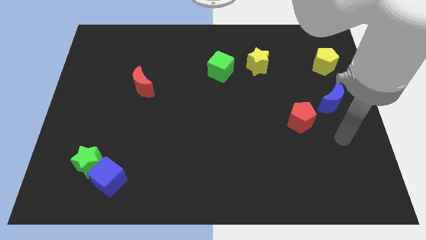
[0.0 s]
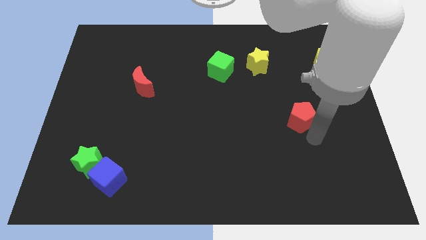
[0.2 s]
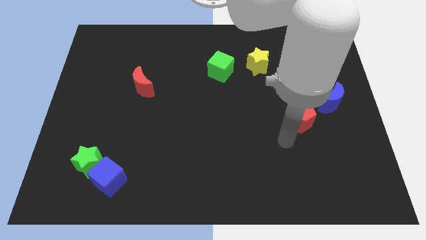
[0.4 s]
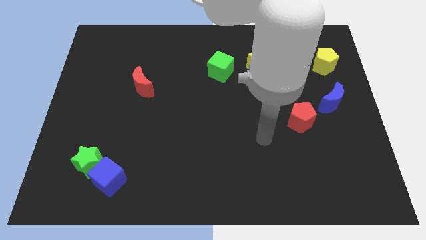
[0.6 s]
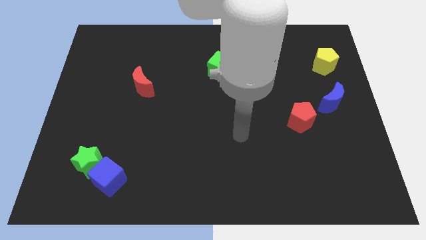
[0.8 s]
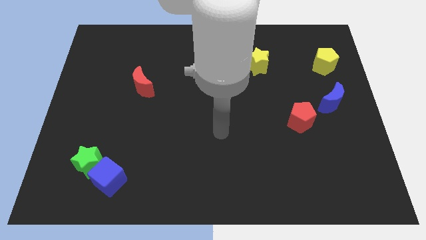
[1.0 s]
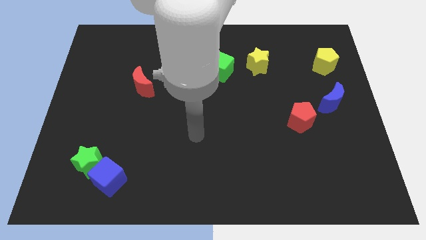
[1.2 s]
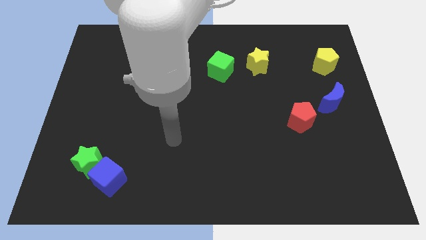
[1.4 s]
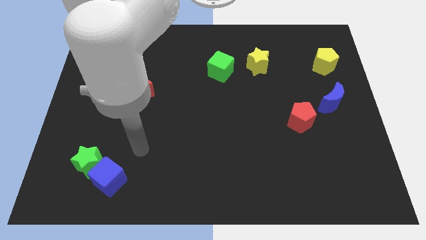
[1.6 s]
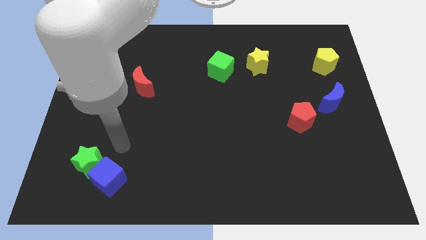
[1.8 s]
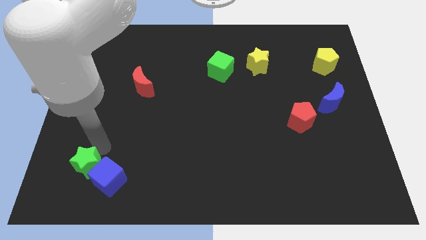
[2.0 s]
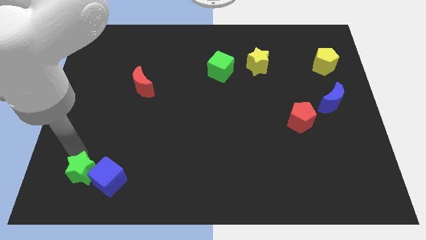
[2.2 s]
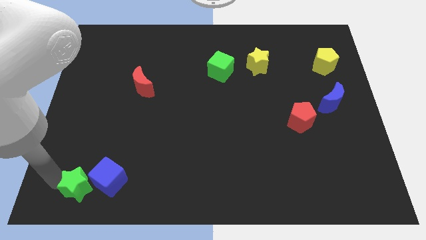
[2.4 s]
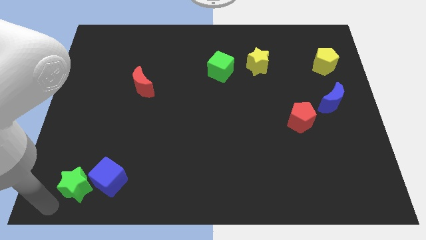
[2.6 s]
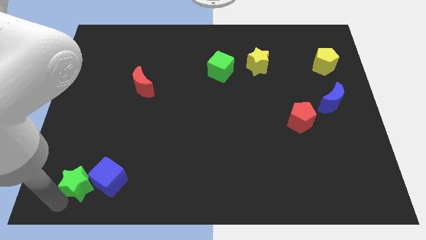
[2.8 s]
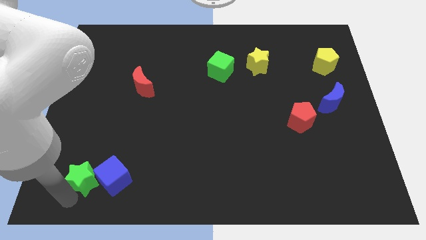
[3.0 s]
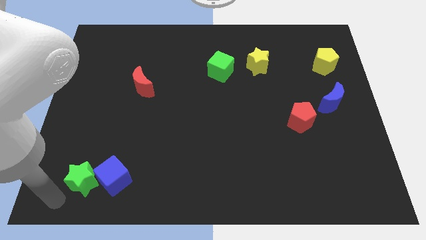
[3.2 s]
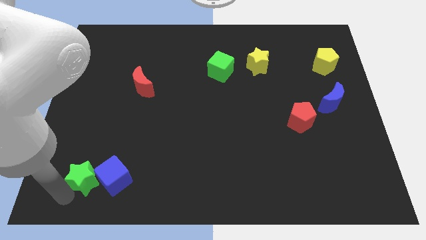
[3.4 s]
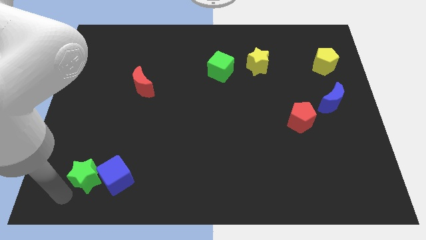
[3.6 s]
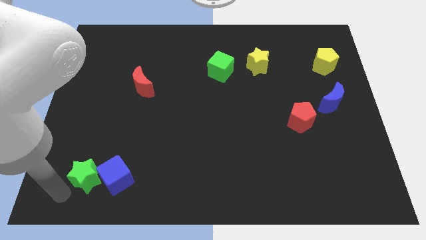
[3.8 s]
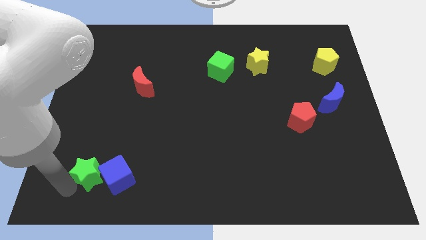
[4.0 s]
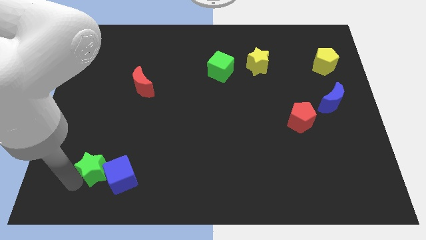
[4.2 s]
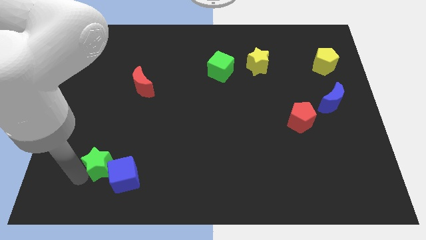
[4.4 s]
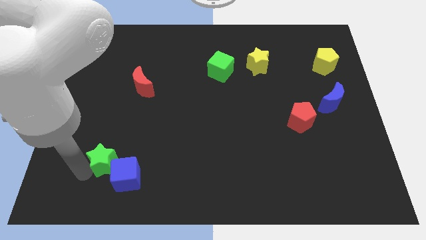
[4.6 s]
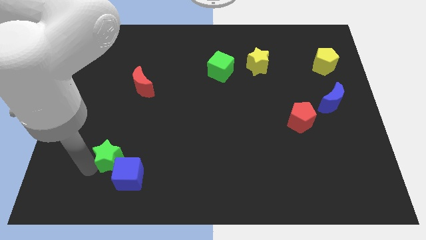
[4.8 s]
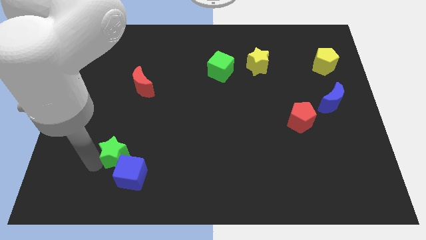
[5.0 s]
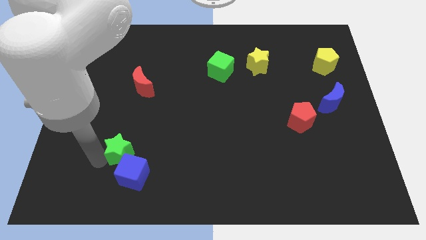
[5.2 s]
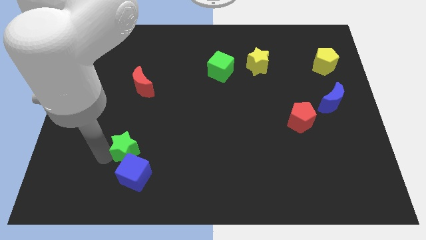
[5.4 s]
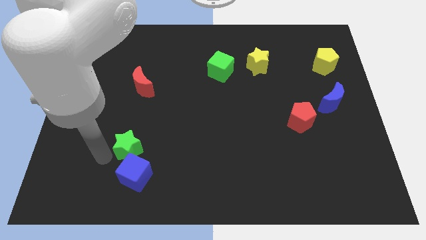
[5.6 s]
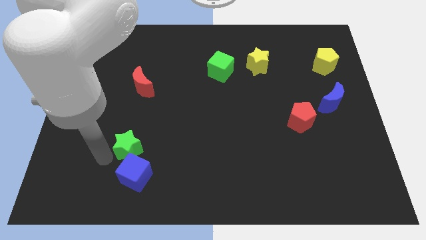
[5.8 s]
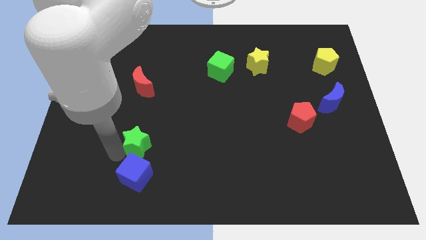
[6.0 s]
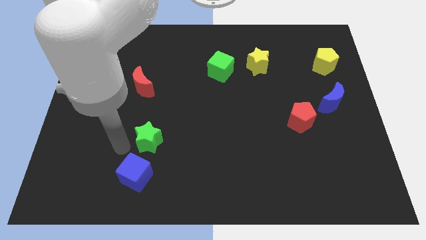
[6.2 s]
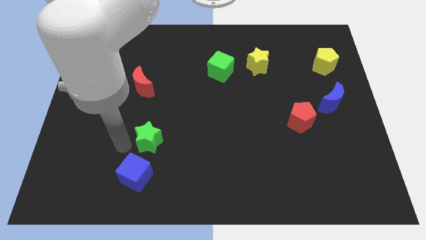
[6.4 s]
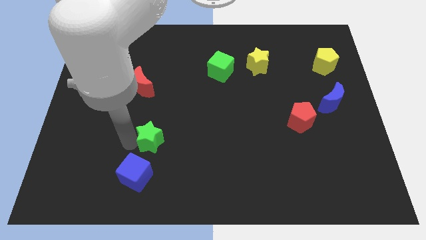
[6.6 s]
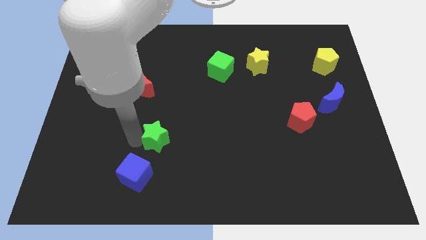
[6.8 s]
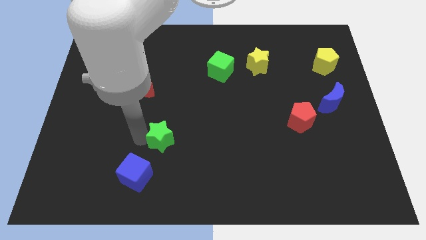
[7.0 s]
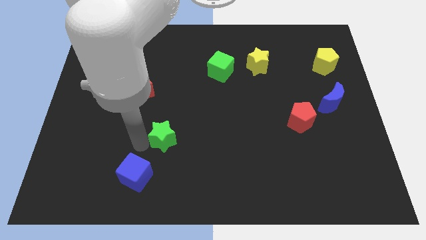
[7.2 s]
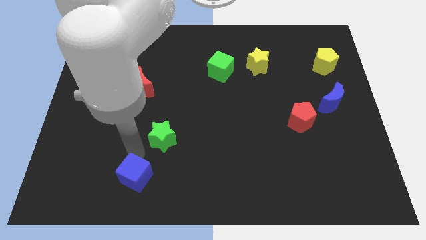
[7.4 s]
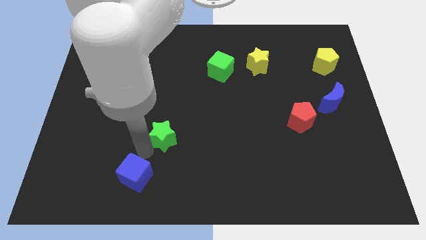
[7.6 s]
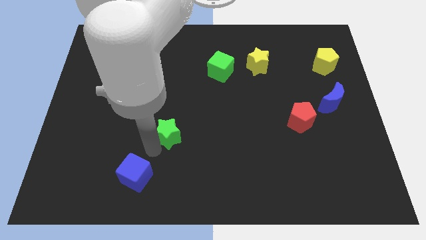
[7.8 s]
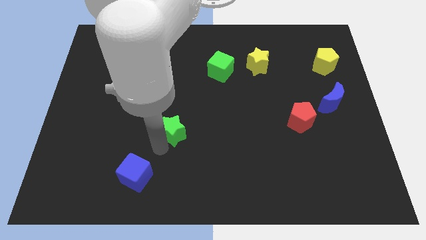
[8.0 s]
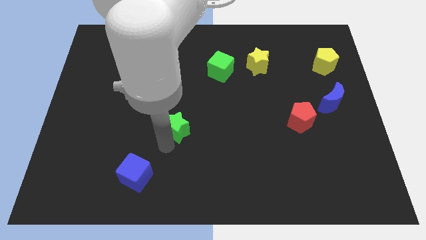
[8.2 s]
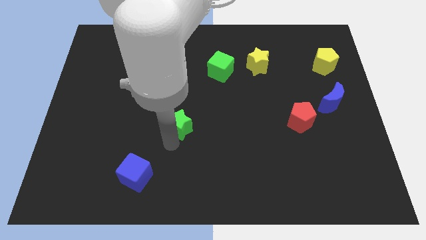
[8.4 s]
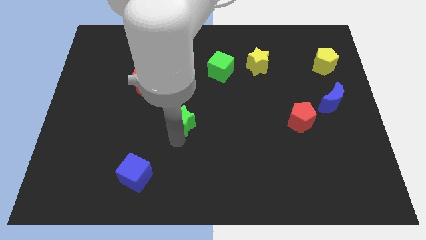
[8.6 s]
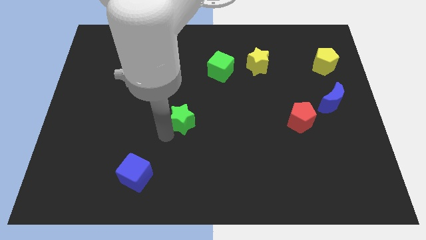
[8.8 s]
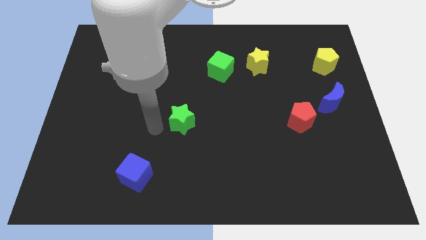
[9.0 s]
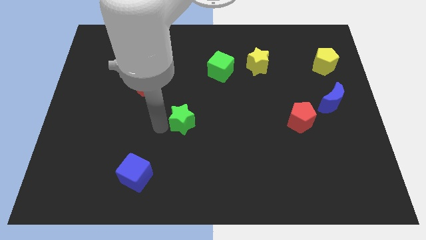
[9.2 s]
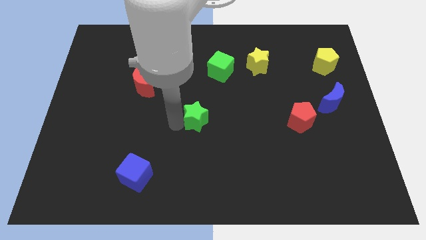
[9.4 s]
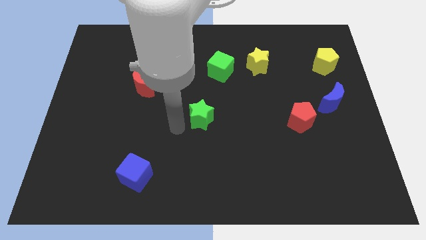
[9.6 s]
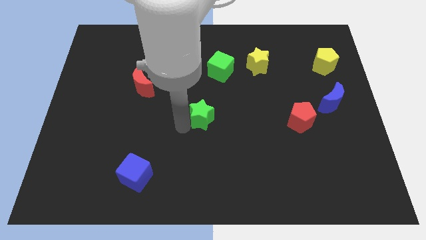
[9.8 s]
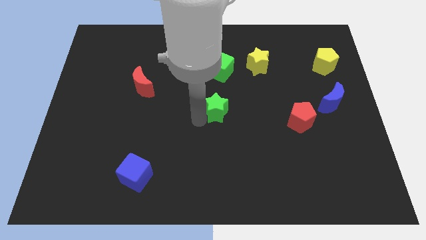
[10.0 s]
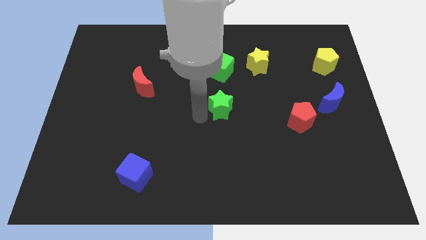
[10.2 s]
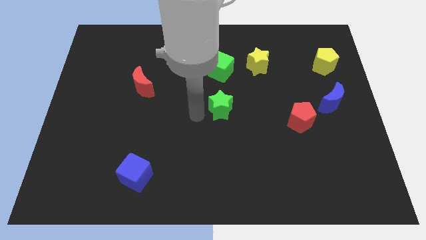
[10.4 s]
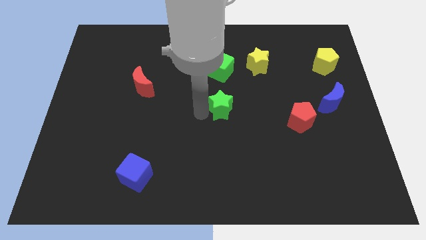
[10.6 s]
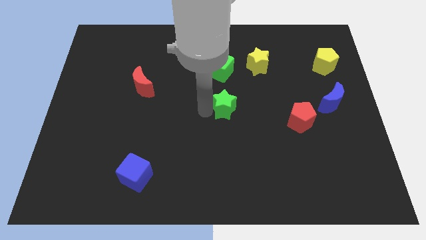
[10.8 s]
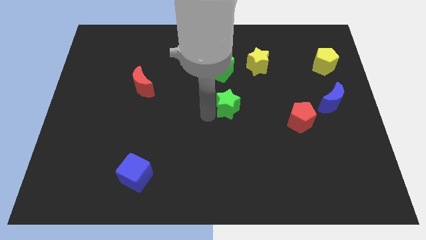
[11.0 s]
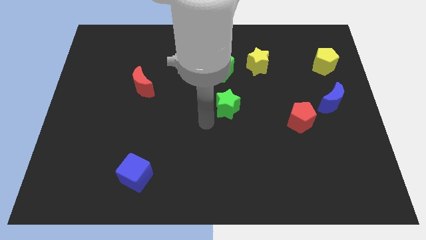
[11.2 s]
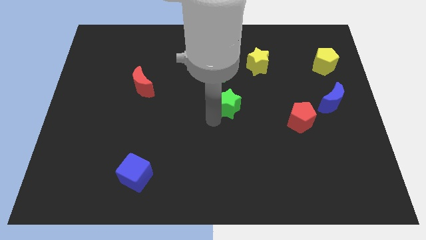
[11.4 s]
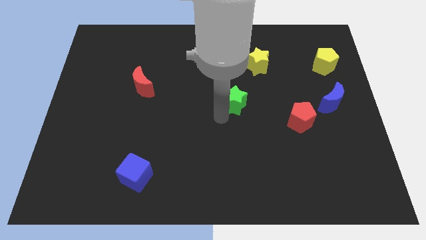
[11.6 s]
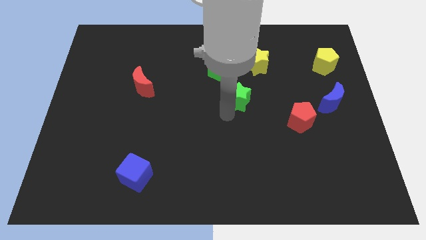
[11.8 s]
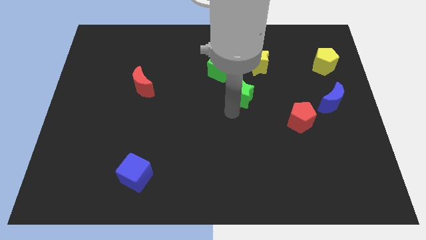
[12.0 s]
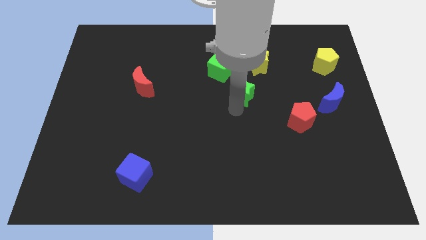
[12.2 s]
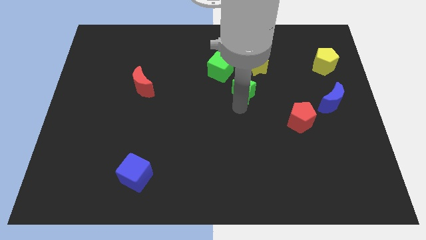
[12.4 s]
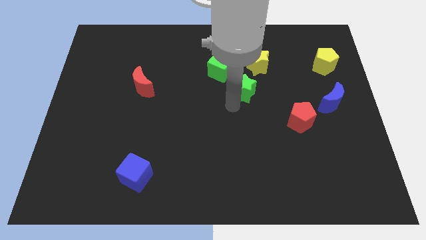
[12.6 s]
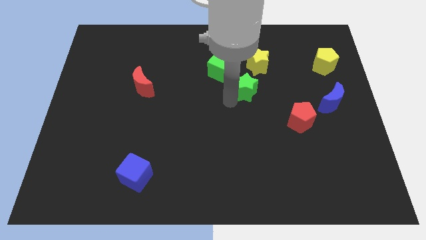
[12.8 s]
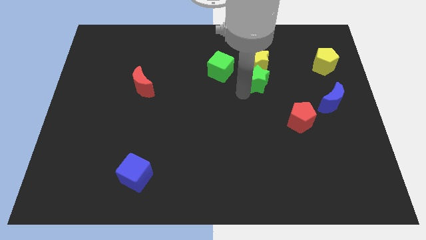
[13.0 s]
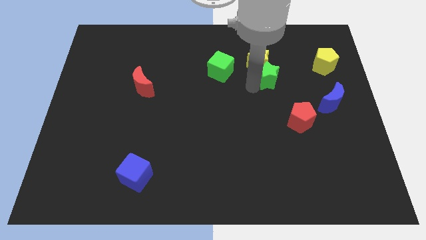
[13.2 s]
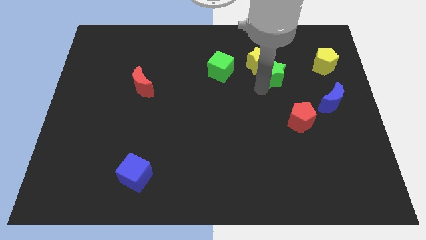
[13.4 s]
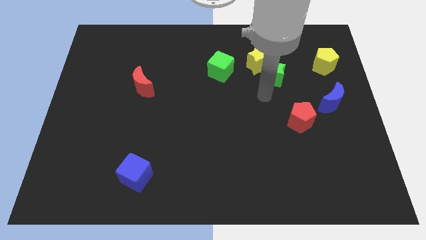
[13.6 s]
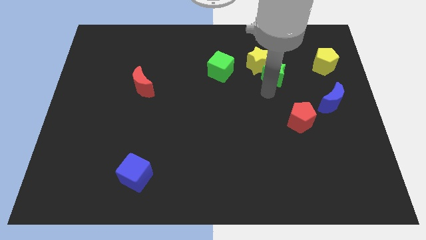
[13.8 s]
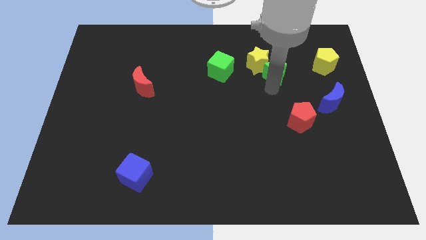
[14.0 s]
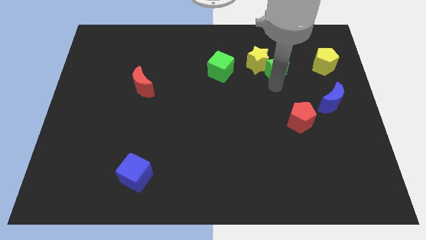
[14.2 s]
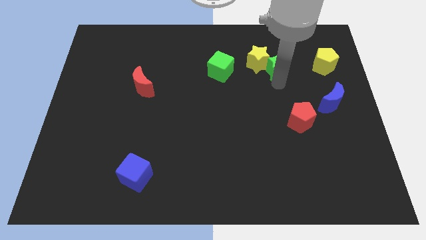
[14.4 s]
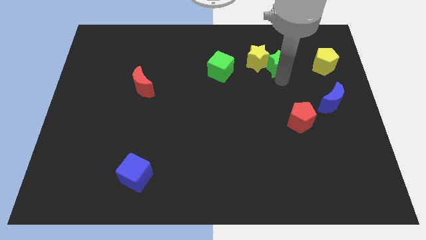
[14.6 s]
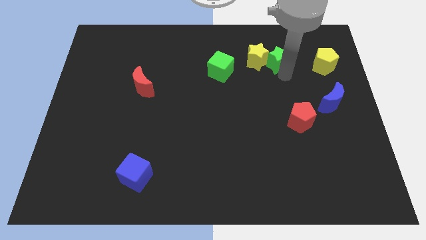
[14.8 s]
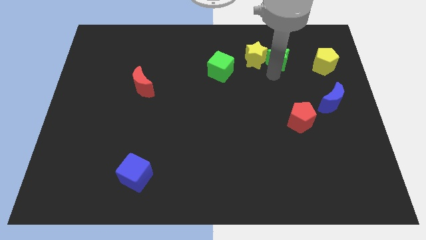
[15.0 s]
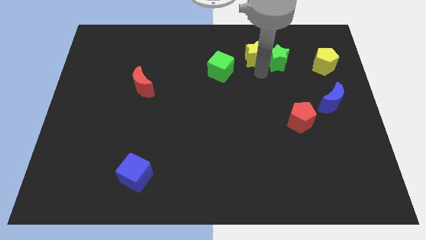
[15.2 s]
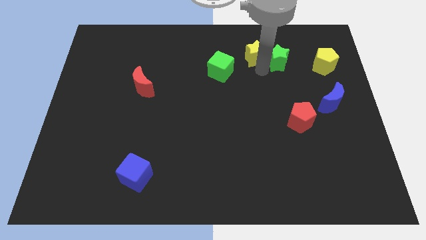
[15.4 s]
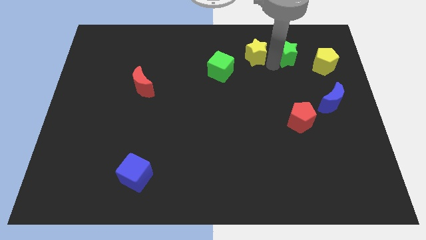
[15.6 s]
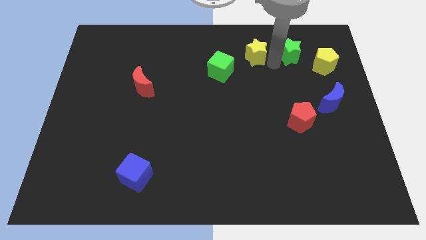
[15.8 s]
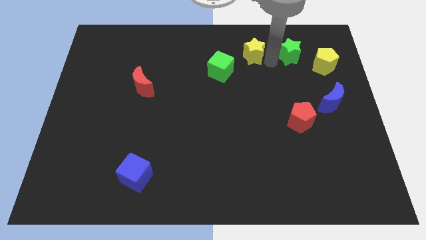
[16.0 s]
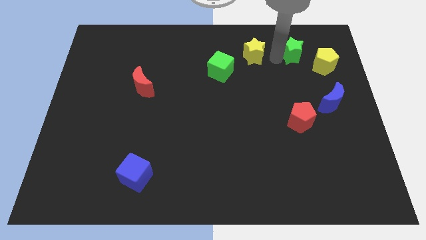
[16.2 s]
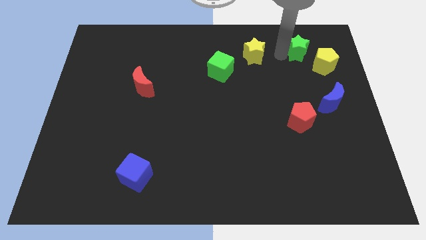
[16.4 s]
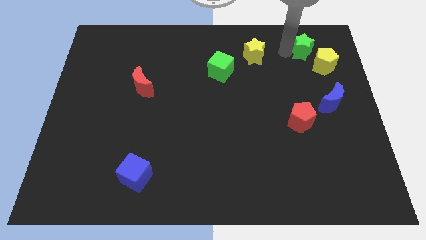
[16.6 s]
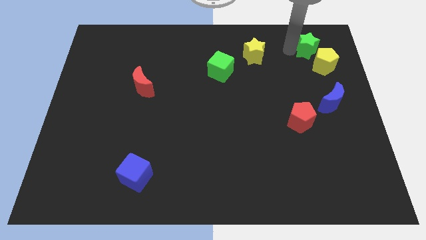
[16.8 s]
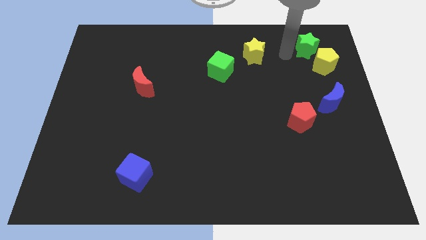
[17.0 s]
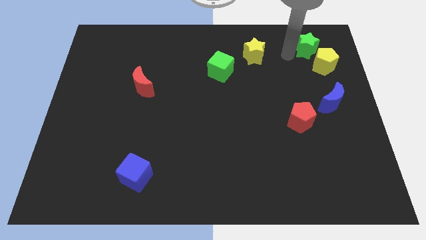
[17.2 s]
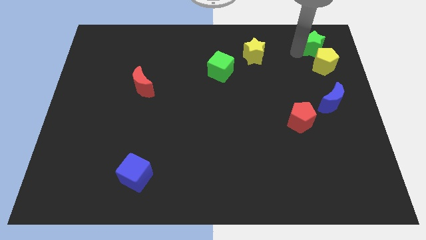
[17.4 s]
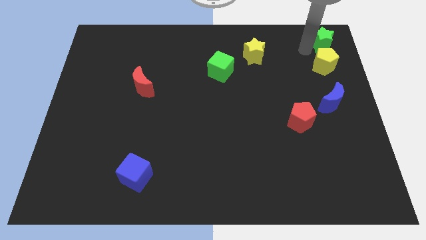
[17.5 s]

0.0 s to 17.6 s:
move the green star to the top right
